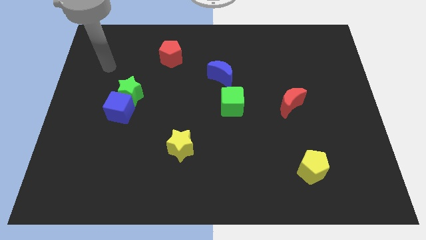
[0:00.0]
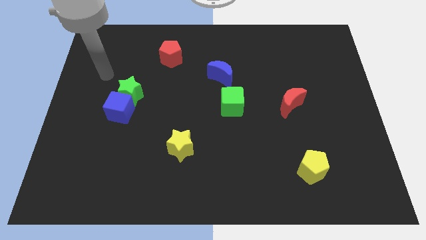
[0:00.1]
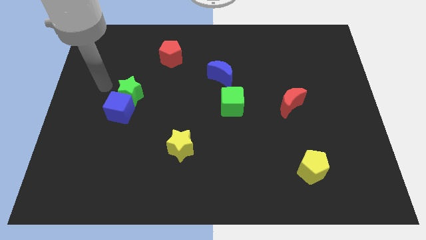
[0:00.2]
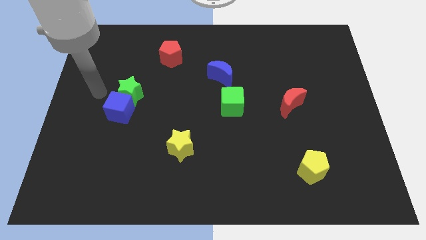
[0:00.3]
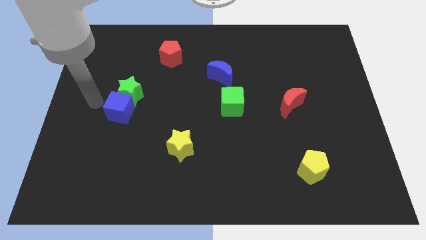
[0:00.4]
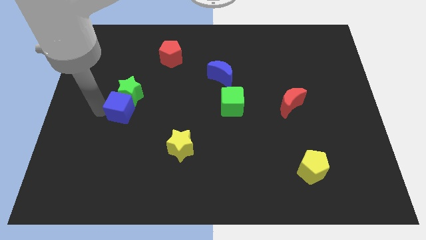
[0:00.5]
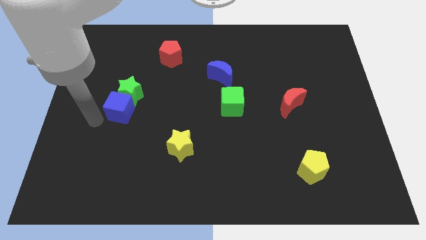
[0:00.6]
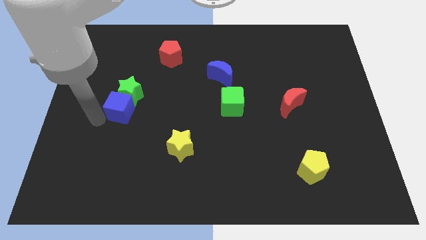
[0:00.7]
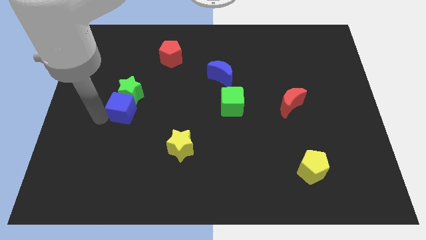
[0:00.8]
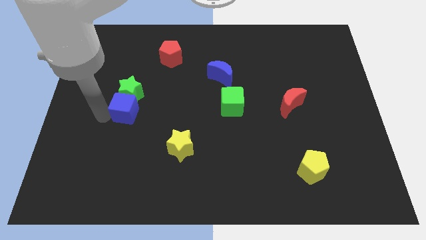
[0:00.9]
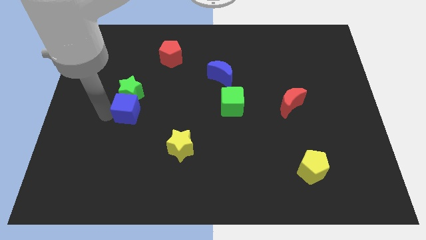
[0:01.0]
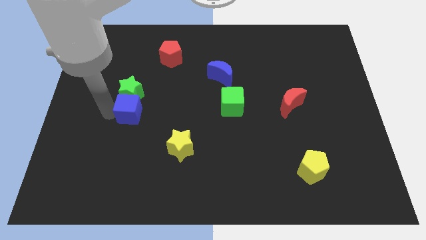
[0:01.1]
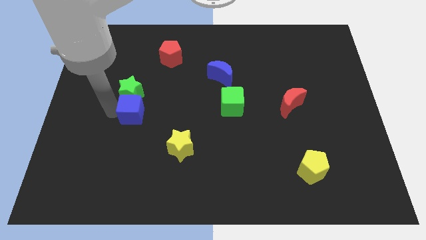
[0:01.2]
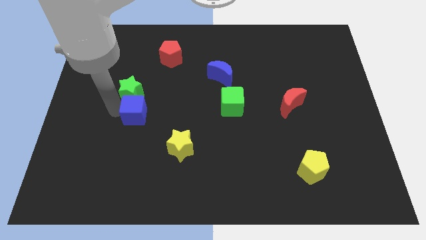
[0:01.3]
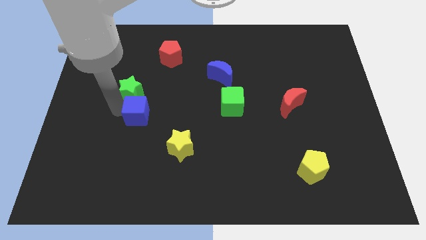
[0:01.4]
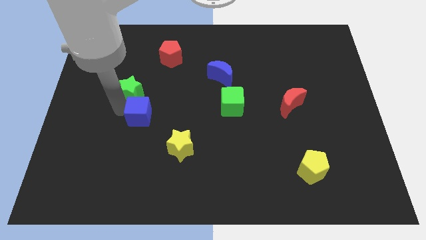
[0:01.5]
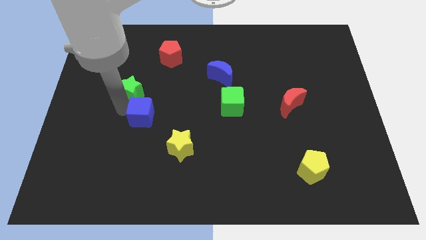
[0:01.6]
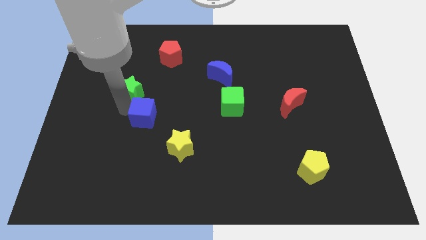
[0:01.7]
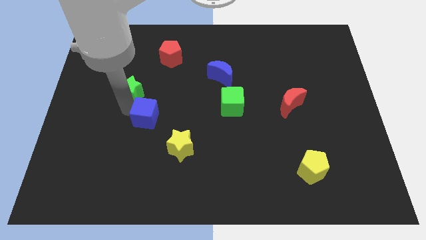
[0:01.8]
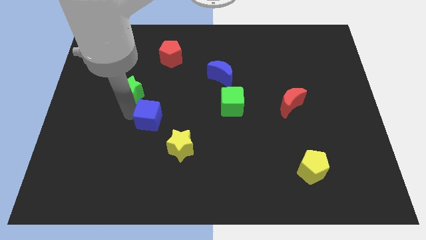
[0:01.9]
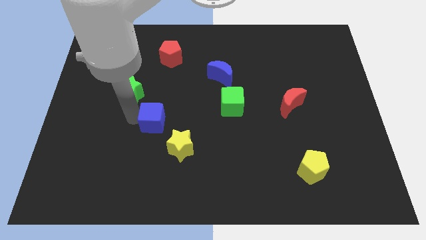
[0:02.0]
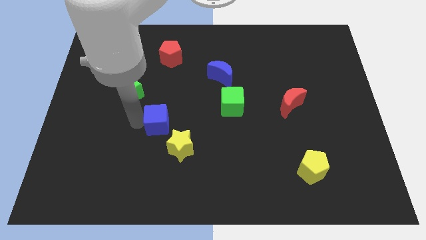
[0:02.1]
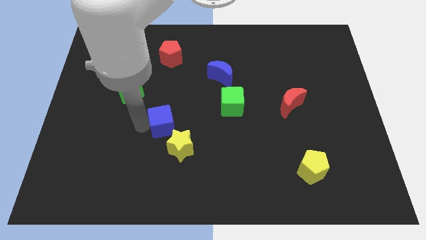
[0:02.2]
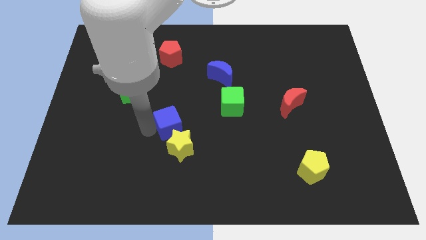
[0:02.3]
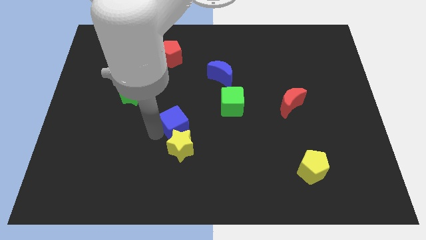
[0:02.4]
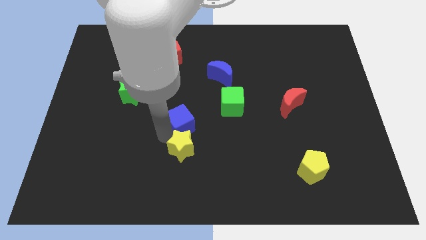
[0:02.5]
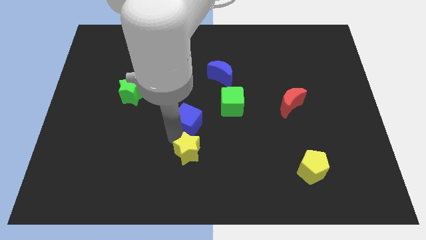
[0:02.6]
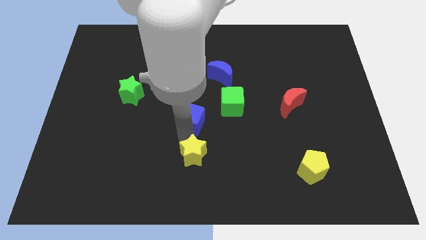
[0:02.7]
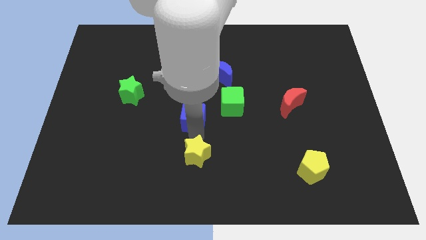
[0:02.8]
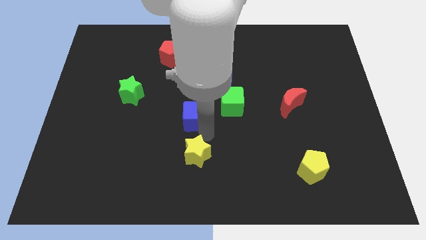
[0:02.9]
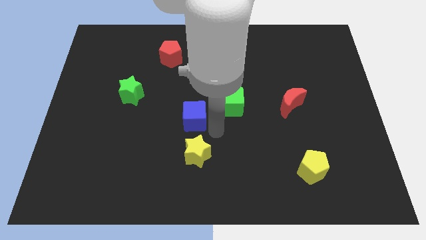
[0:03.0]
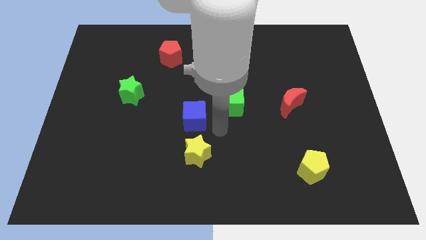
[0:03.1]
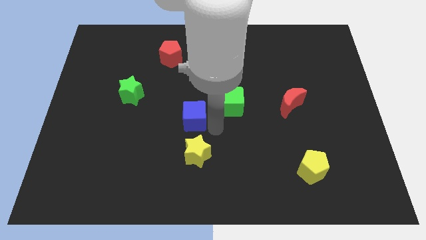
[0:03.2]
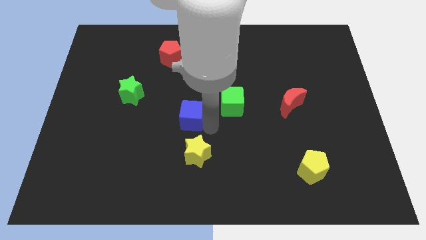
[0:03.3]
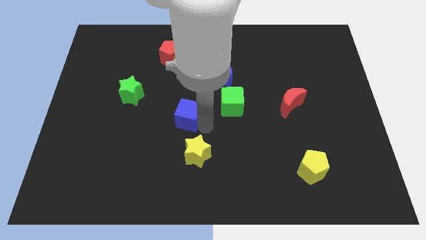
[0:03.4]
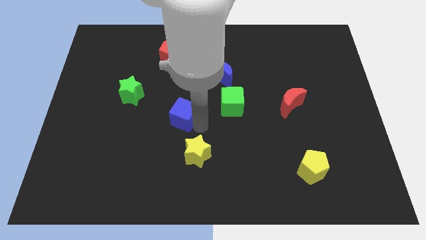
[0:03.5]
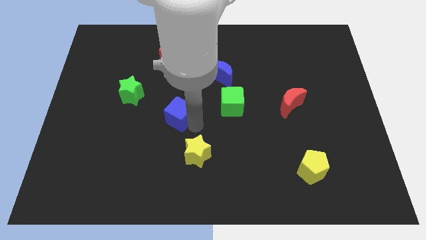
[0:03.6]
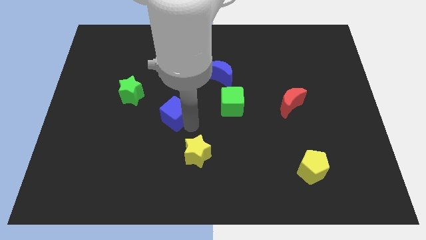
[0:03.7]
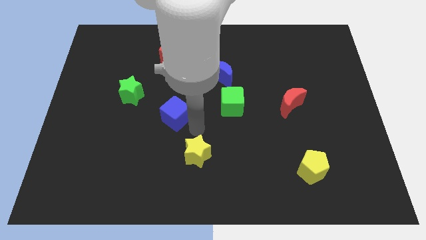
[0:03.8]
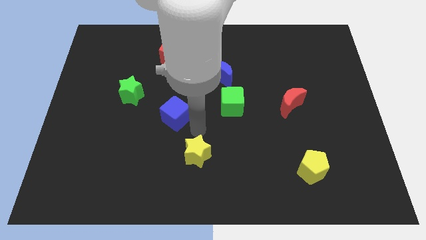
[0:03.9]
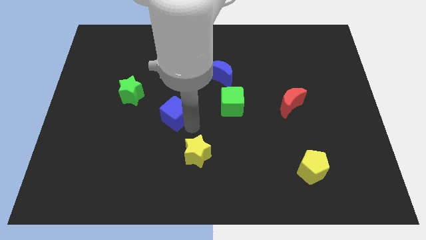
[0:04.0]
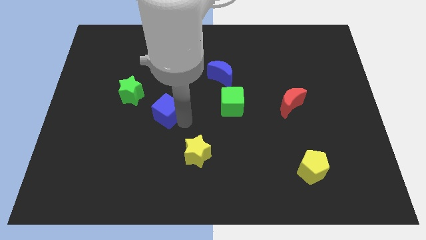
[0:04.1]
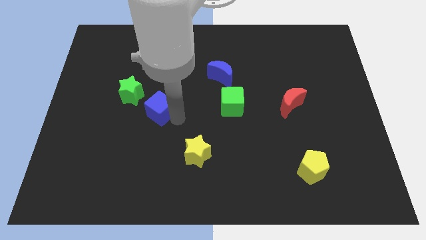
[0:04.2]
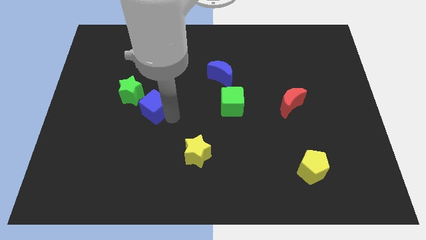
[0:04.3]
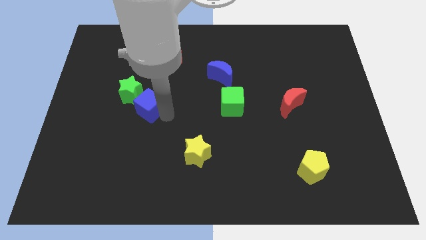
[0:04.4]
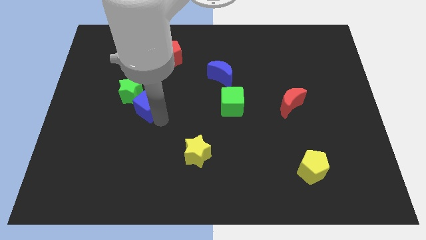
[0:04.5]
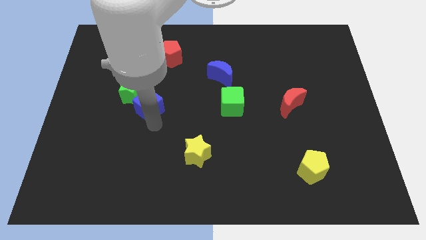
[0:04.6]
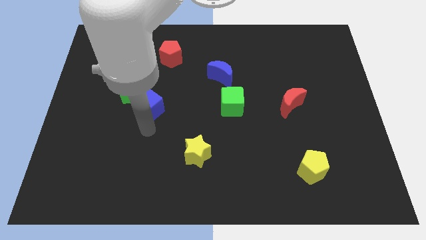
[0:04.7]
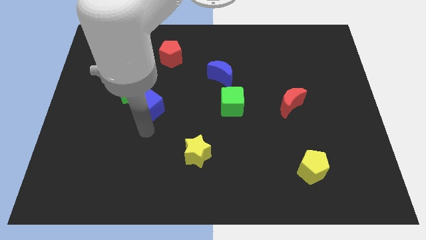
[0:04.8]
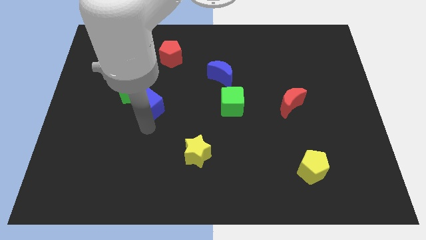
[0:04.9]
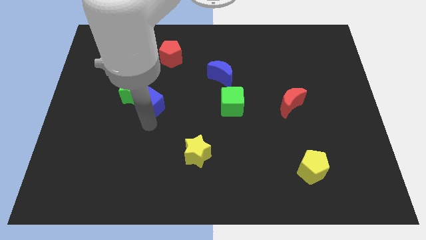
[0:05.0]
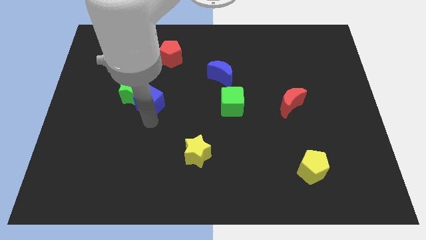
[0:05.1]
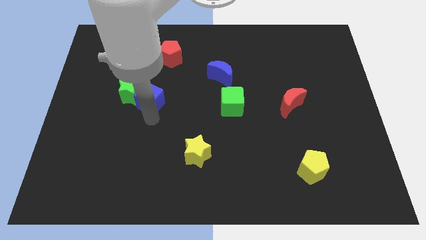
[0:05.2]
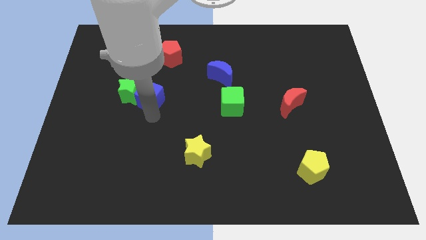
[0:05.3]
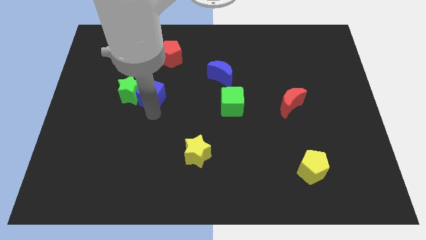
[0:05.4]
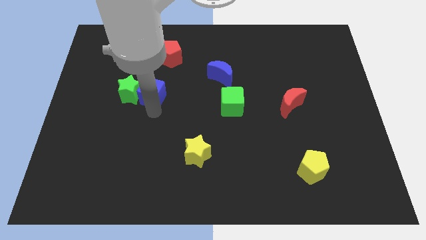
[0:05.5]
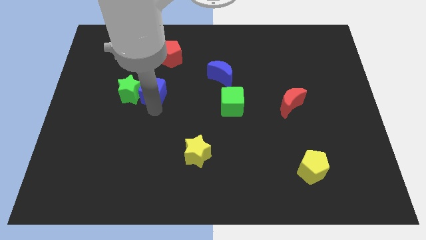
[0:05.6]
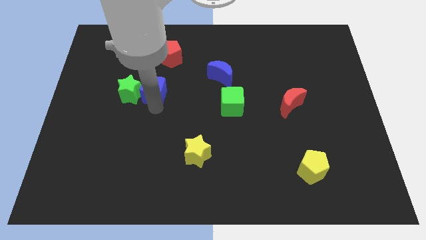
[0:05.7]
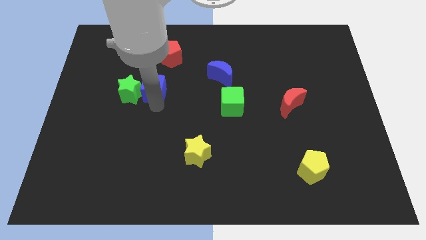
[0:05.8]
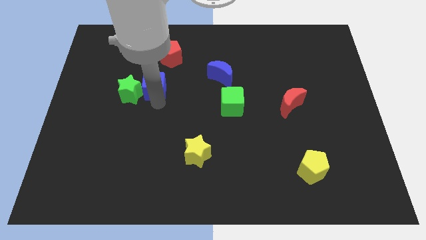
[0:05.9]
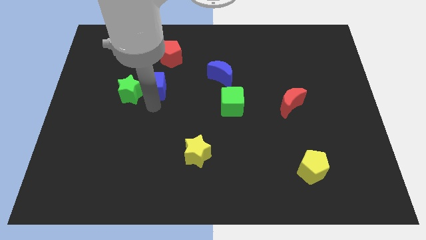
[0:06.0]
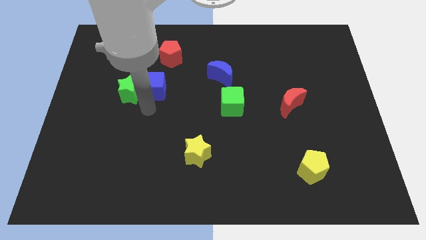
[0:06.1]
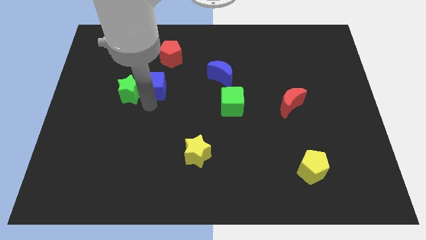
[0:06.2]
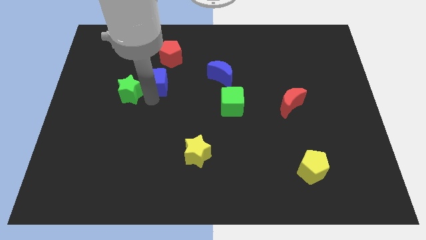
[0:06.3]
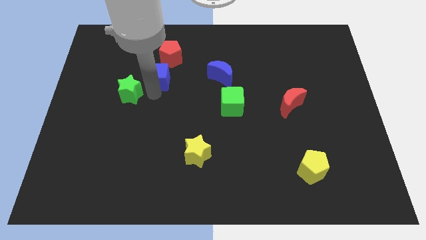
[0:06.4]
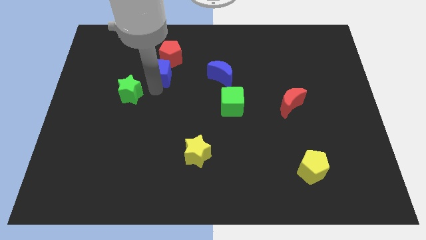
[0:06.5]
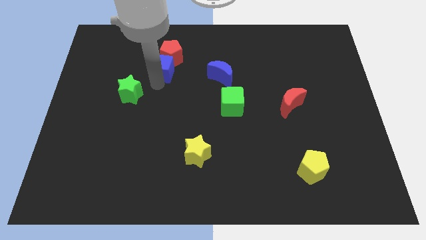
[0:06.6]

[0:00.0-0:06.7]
put the blue cube close to the red pentagon

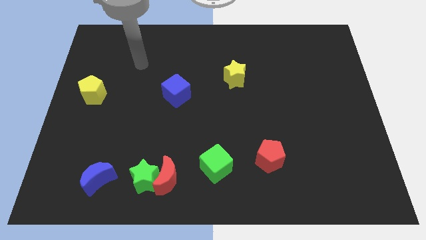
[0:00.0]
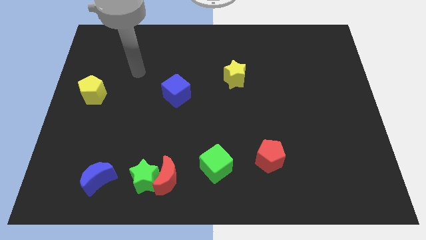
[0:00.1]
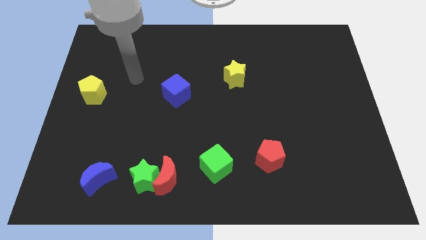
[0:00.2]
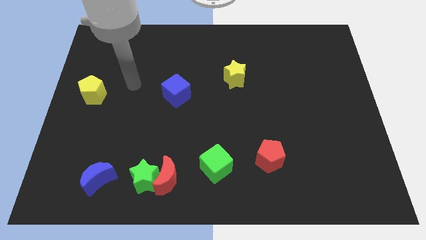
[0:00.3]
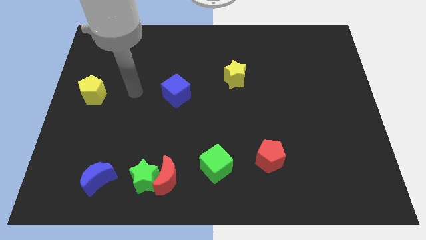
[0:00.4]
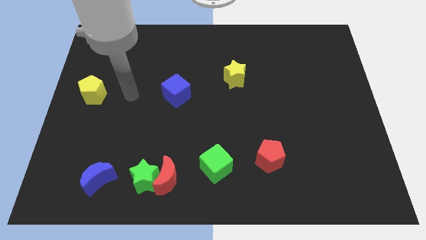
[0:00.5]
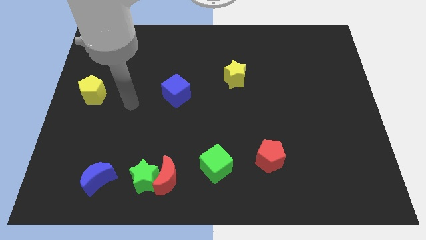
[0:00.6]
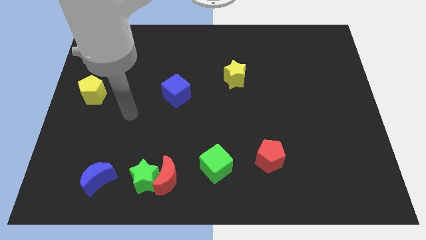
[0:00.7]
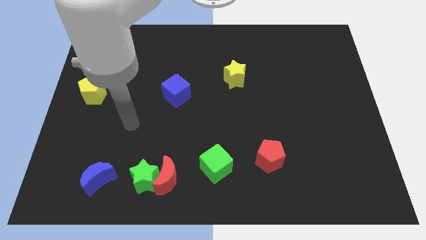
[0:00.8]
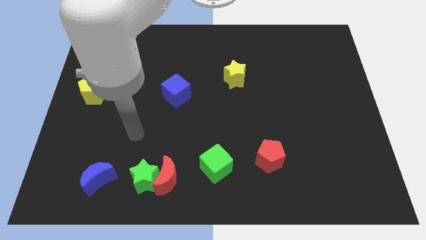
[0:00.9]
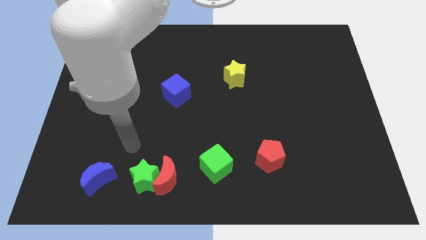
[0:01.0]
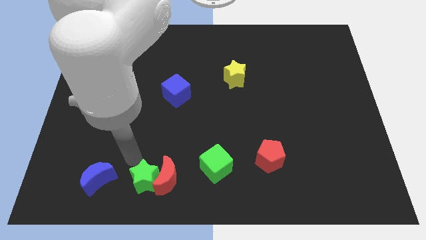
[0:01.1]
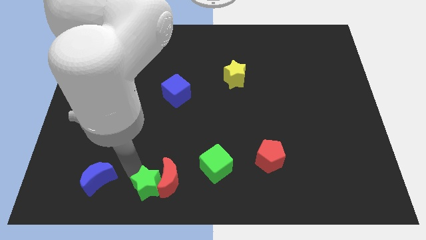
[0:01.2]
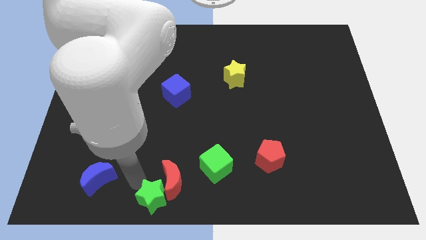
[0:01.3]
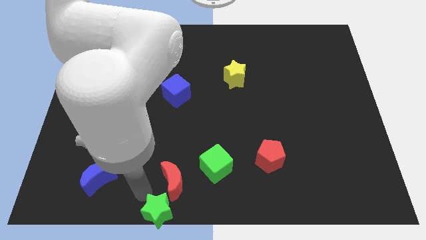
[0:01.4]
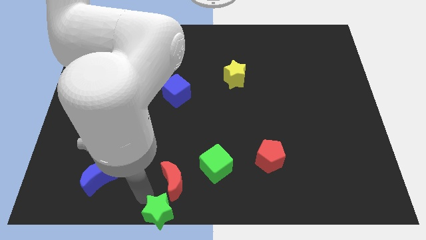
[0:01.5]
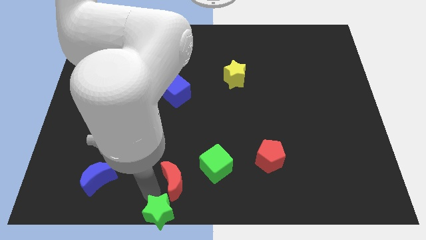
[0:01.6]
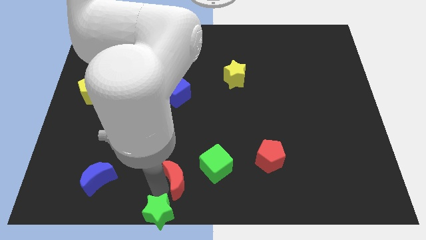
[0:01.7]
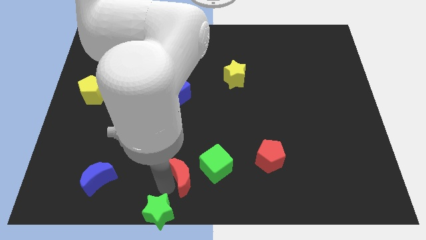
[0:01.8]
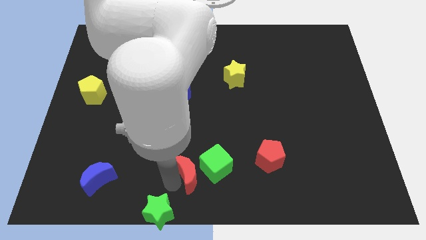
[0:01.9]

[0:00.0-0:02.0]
put the red moon to the green cube
